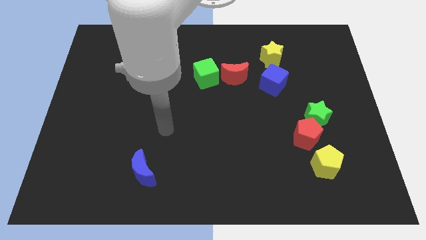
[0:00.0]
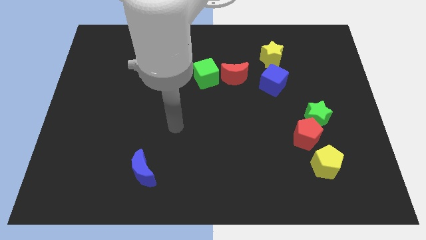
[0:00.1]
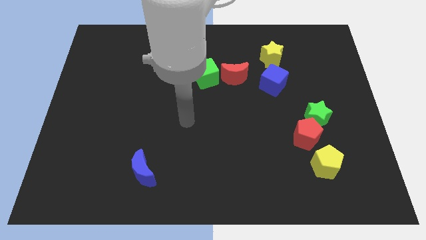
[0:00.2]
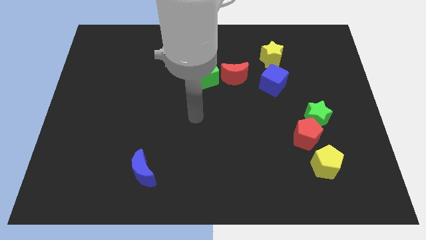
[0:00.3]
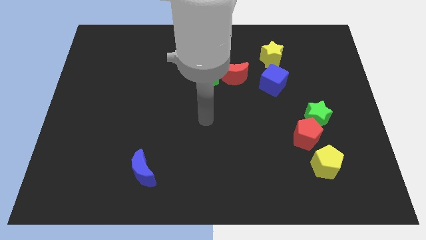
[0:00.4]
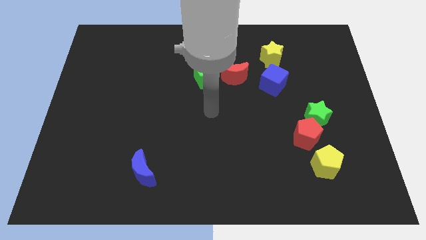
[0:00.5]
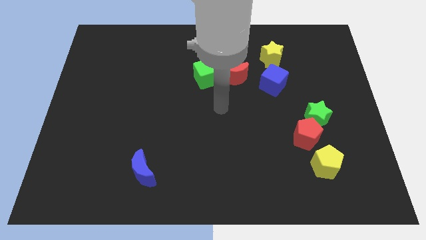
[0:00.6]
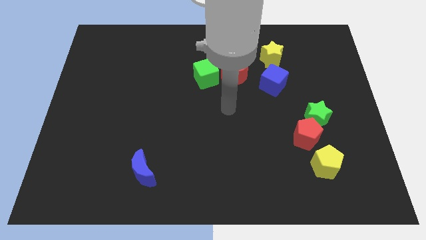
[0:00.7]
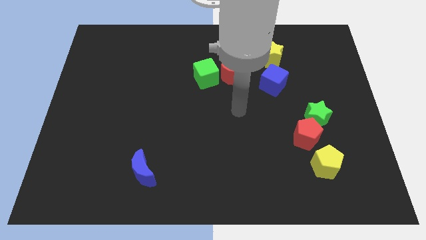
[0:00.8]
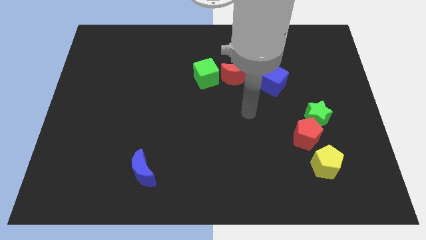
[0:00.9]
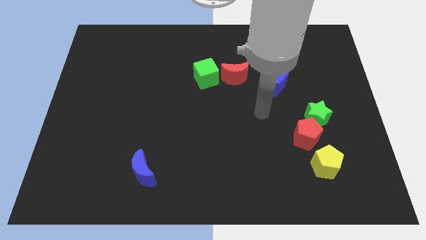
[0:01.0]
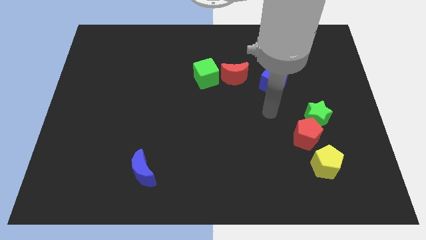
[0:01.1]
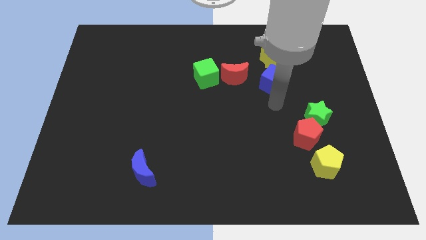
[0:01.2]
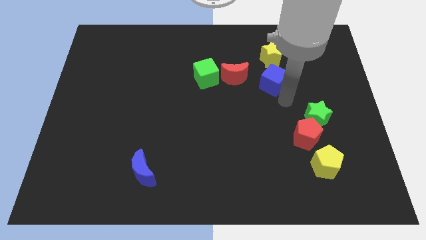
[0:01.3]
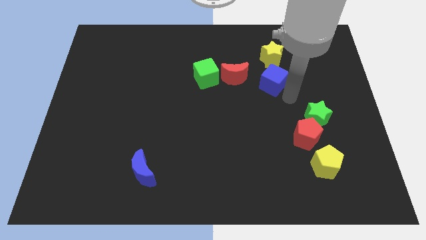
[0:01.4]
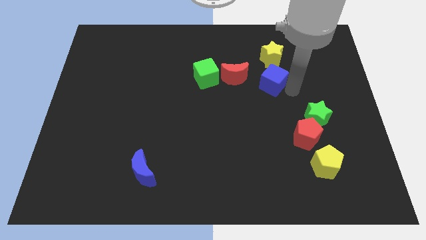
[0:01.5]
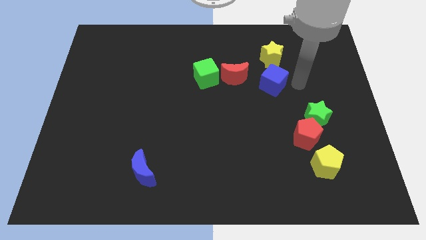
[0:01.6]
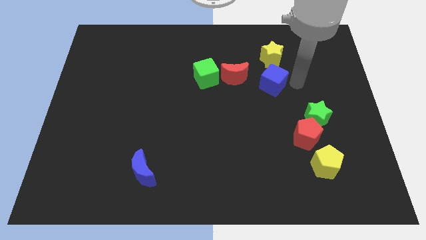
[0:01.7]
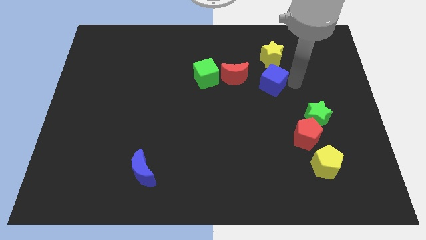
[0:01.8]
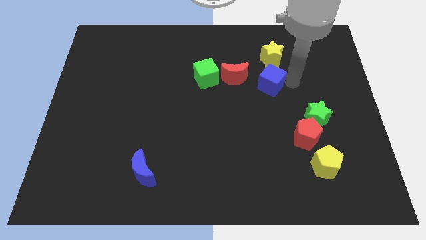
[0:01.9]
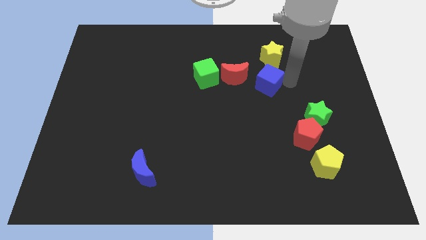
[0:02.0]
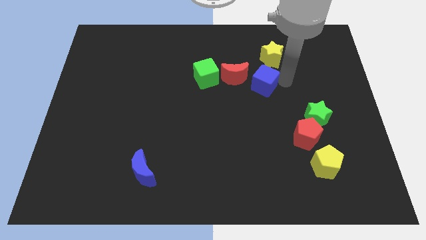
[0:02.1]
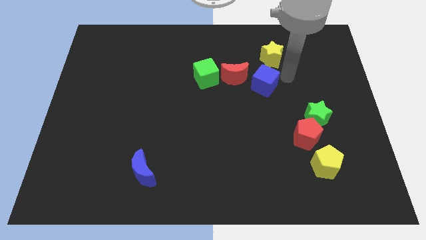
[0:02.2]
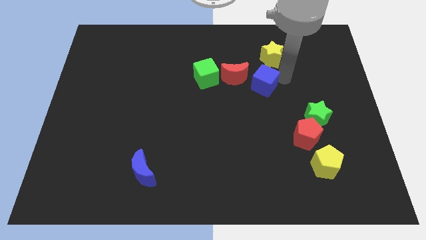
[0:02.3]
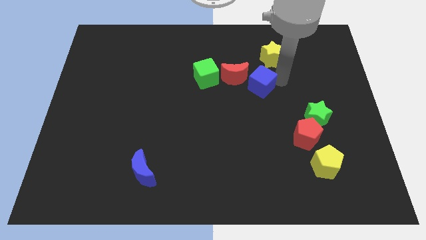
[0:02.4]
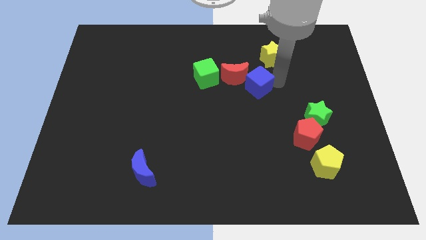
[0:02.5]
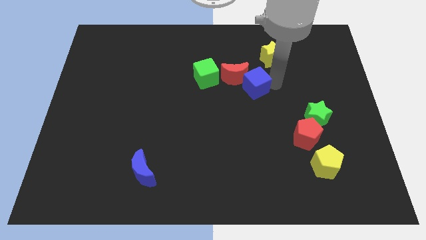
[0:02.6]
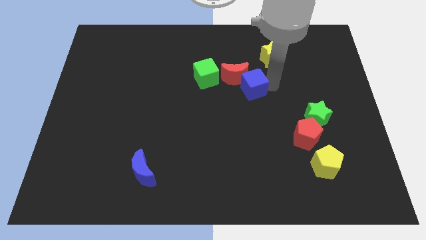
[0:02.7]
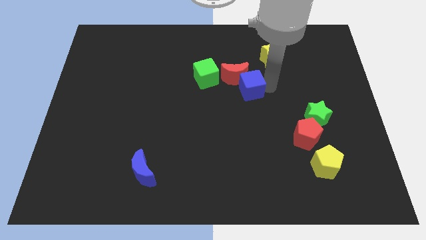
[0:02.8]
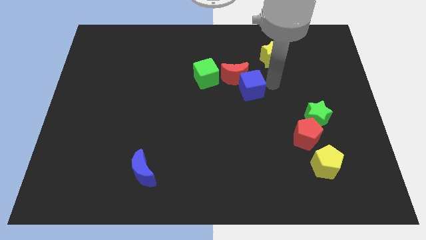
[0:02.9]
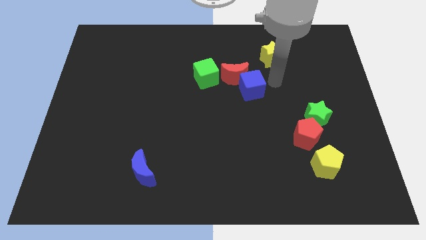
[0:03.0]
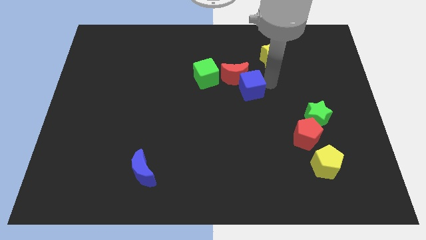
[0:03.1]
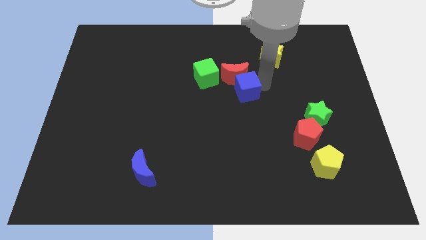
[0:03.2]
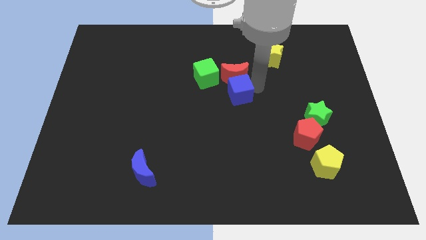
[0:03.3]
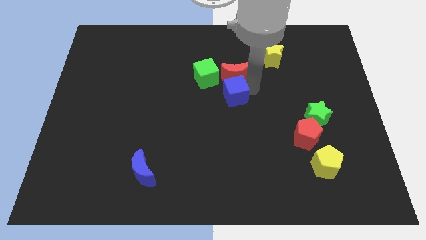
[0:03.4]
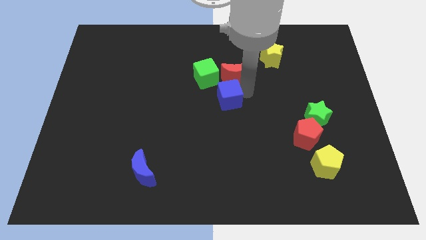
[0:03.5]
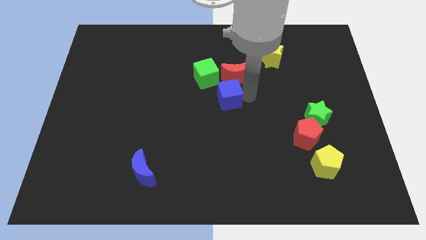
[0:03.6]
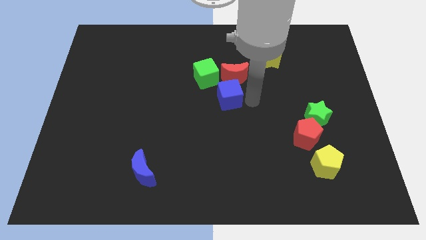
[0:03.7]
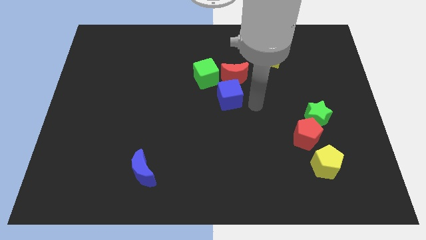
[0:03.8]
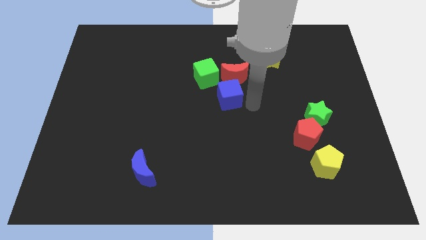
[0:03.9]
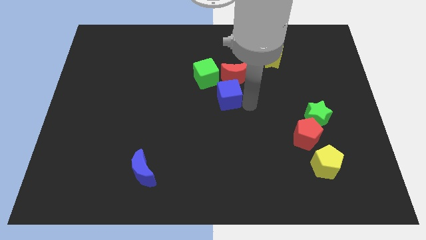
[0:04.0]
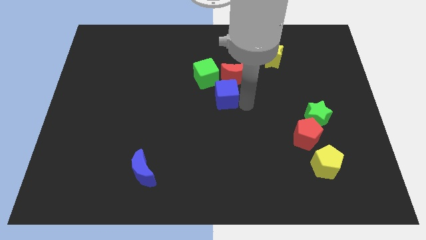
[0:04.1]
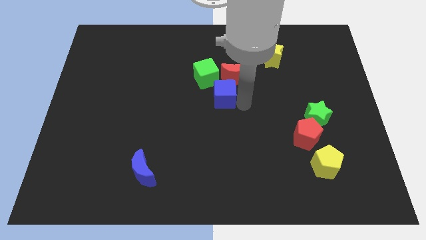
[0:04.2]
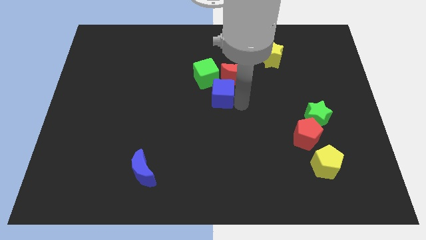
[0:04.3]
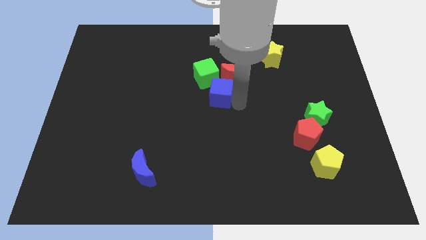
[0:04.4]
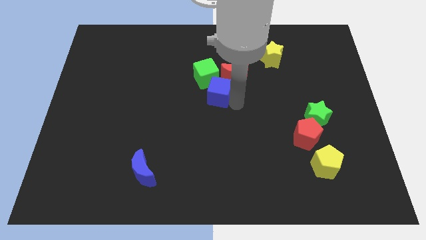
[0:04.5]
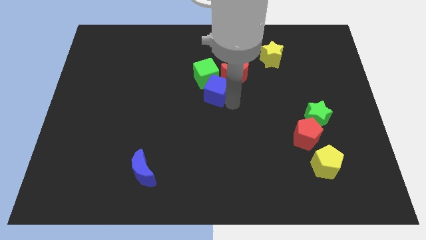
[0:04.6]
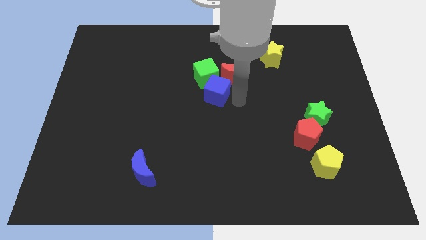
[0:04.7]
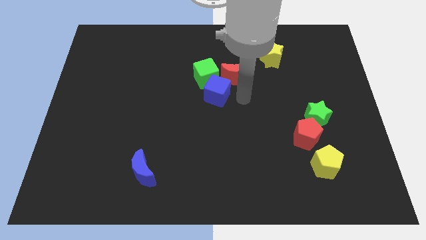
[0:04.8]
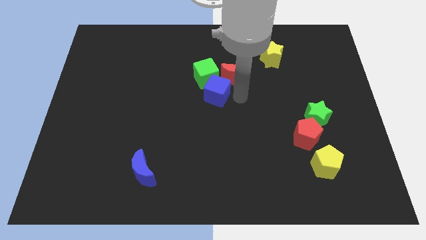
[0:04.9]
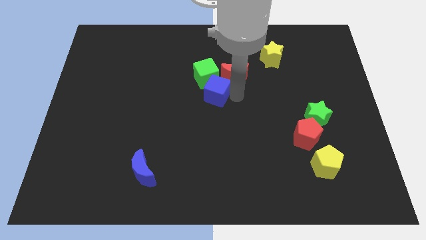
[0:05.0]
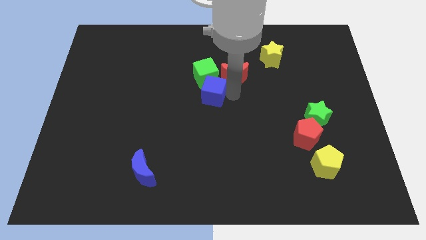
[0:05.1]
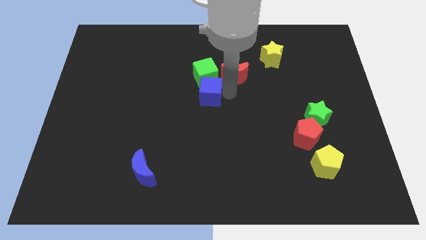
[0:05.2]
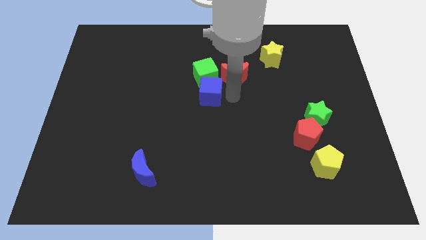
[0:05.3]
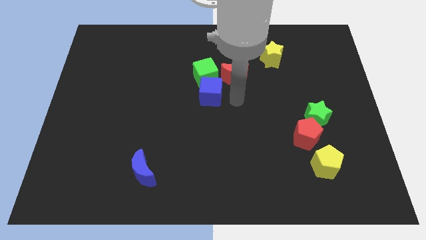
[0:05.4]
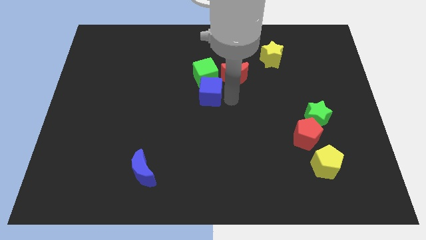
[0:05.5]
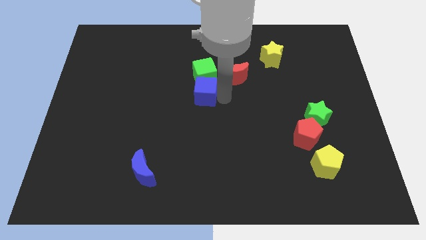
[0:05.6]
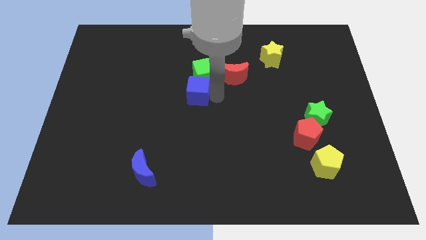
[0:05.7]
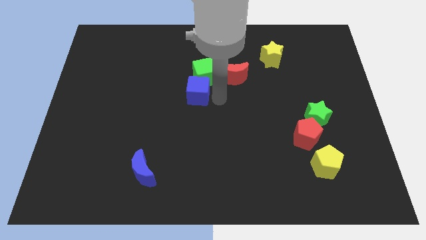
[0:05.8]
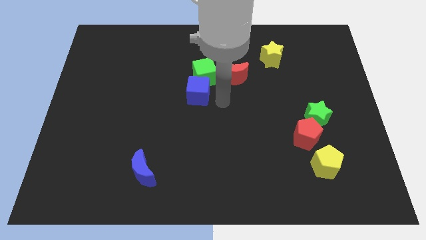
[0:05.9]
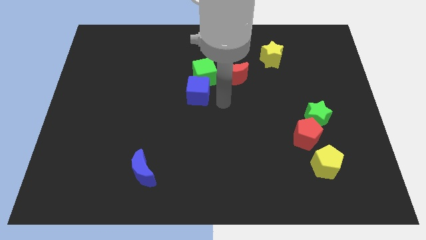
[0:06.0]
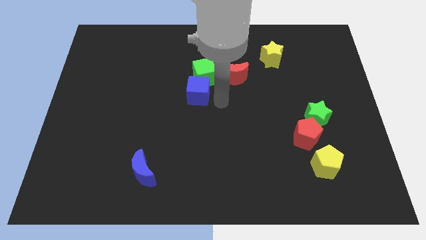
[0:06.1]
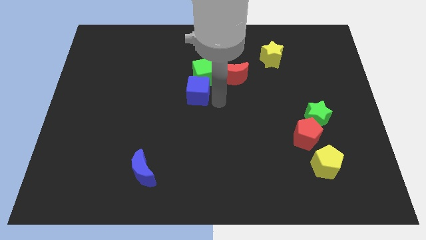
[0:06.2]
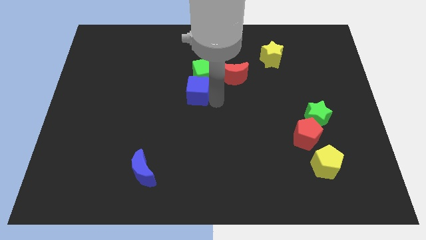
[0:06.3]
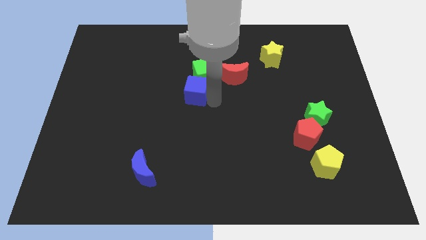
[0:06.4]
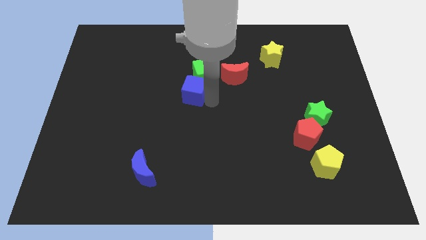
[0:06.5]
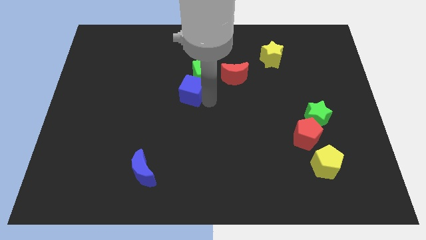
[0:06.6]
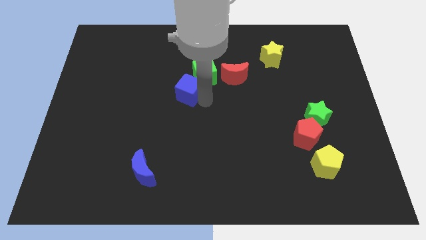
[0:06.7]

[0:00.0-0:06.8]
slide the blue cube left

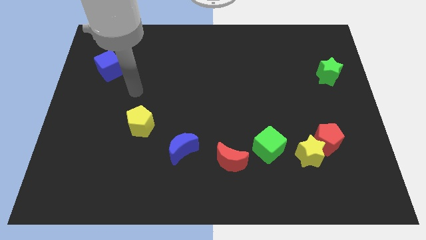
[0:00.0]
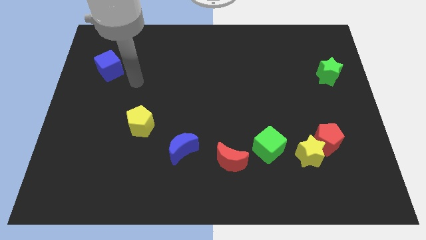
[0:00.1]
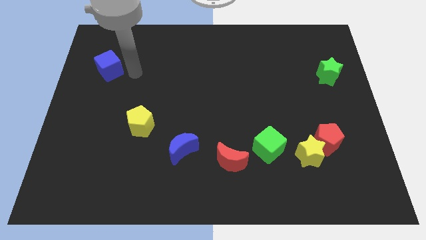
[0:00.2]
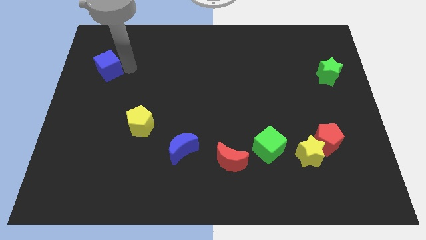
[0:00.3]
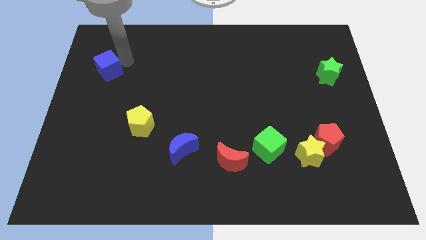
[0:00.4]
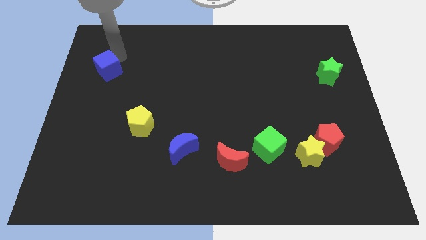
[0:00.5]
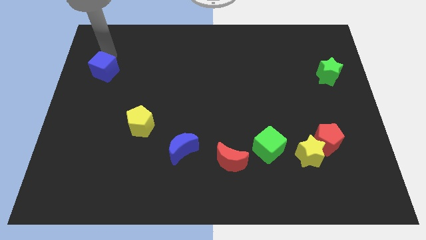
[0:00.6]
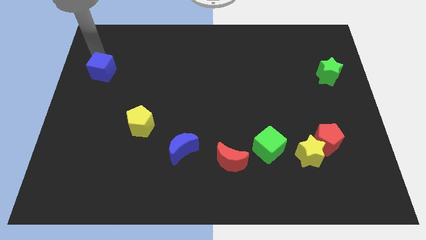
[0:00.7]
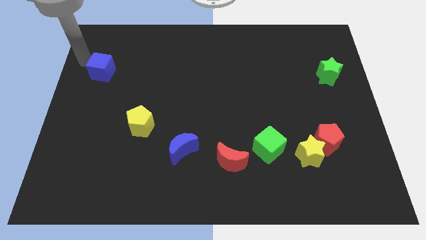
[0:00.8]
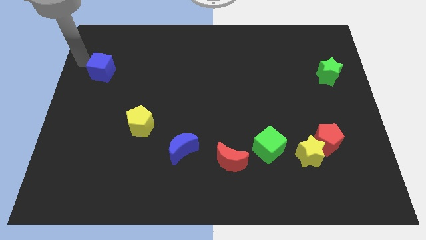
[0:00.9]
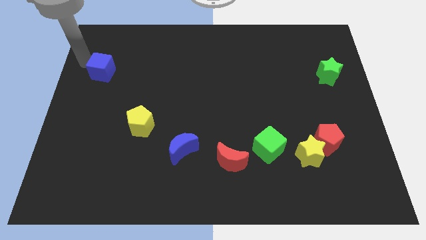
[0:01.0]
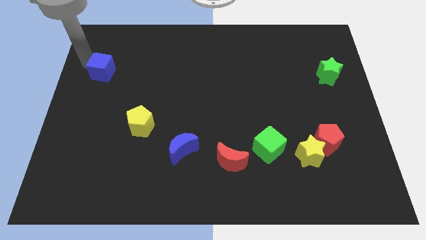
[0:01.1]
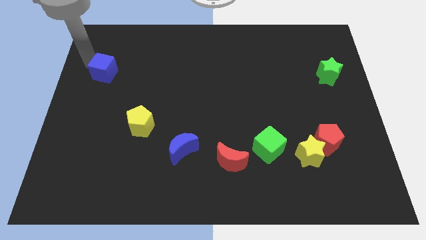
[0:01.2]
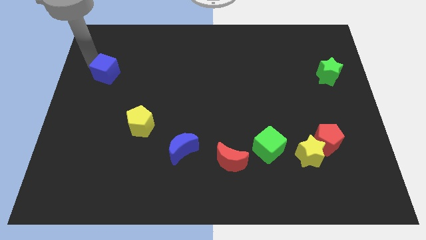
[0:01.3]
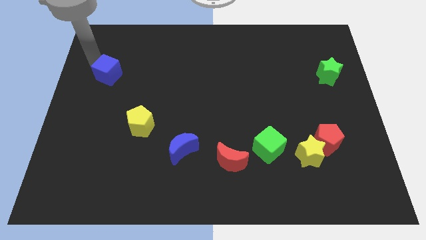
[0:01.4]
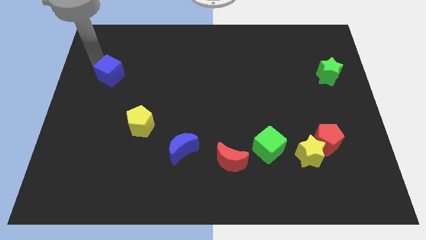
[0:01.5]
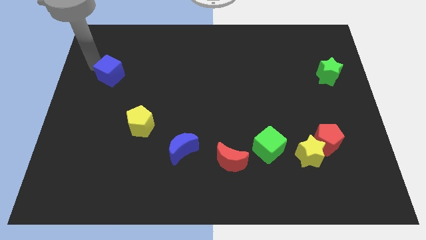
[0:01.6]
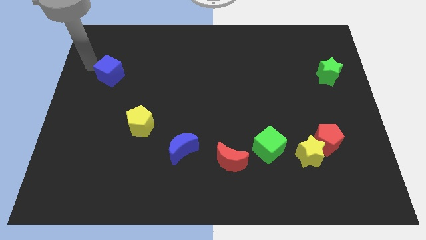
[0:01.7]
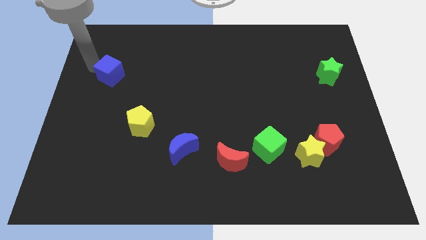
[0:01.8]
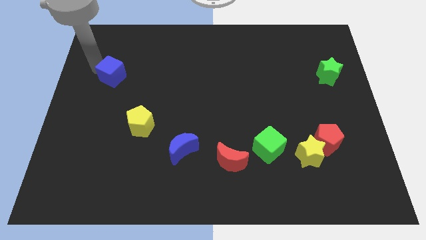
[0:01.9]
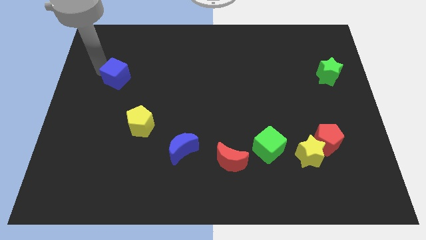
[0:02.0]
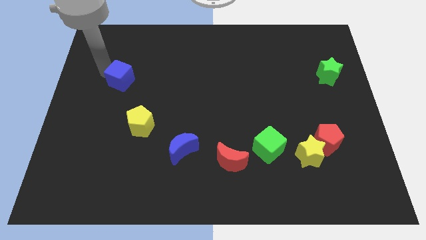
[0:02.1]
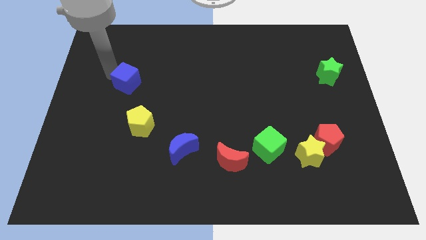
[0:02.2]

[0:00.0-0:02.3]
push the blue cube down and to the right a bit
